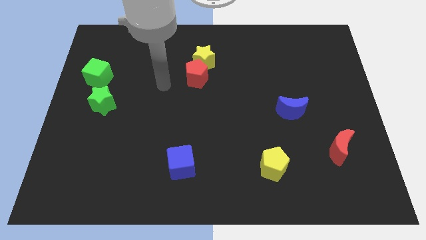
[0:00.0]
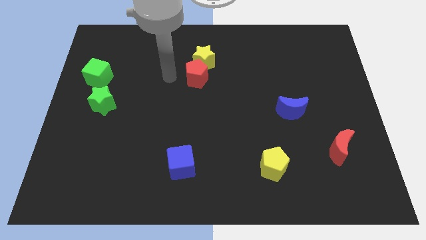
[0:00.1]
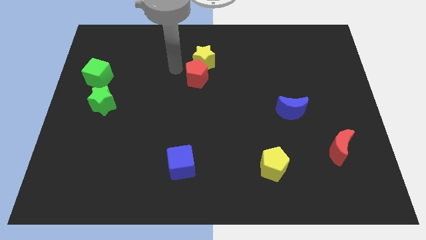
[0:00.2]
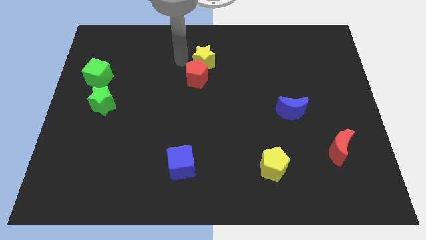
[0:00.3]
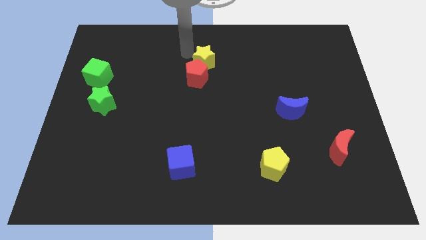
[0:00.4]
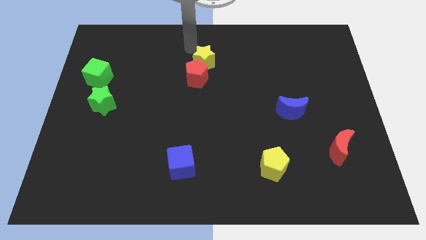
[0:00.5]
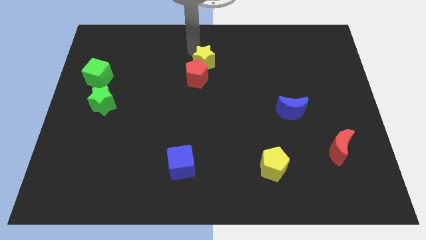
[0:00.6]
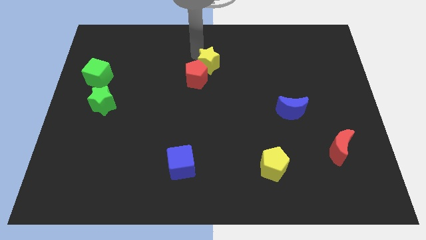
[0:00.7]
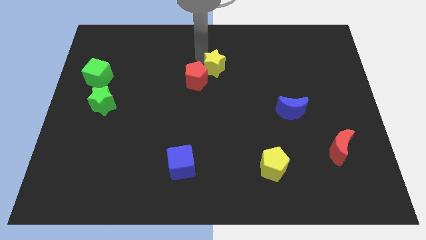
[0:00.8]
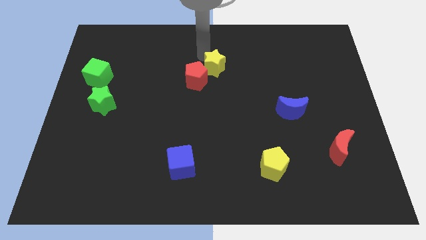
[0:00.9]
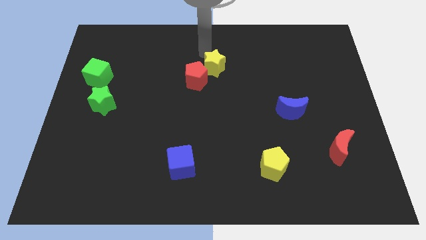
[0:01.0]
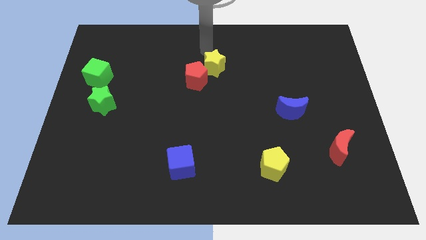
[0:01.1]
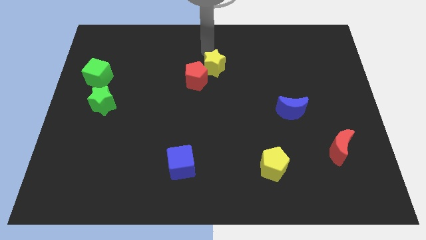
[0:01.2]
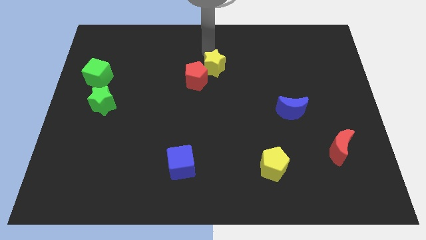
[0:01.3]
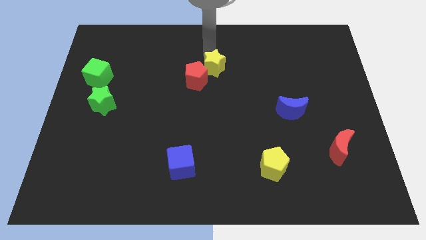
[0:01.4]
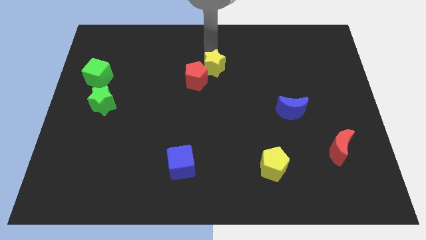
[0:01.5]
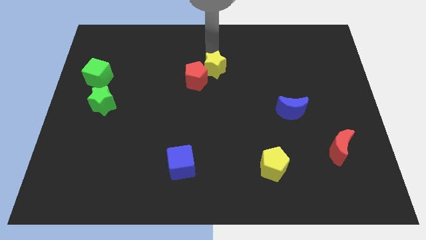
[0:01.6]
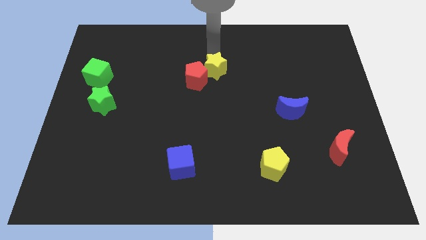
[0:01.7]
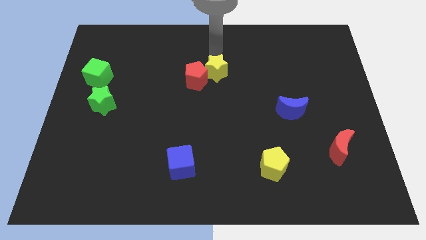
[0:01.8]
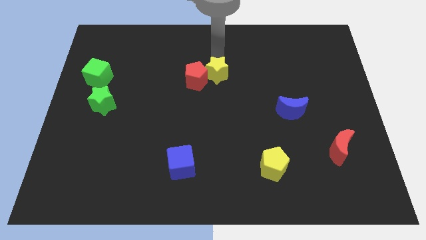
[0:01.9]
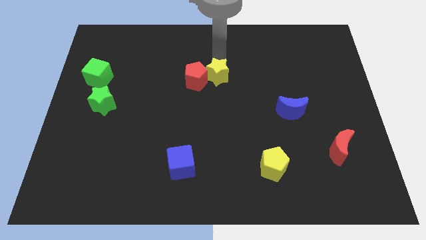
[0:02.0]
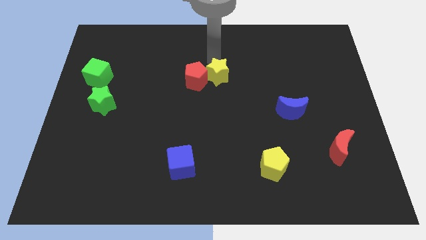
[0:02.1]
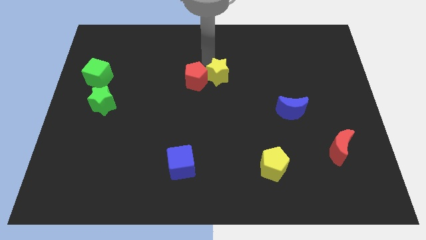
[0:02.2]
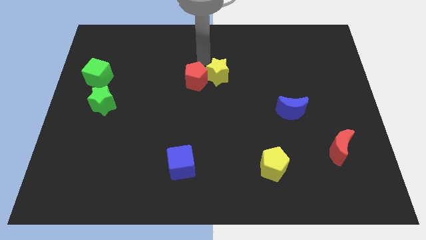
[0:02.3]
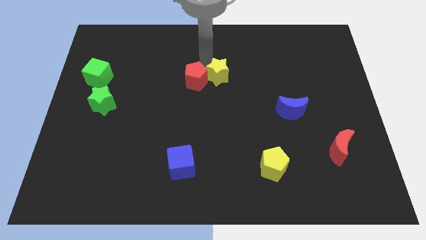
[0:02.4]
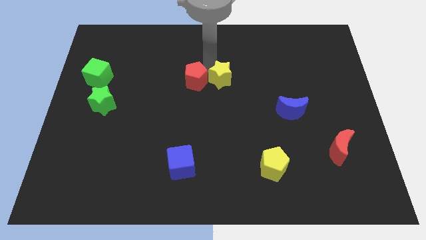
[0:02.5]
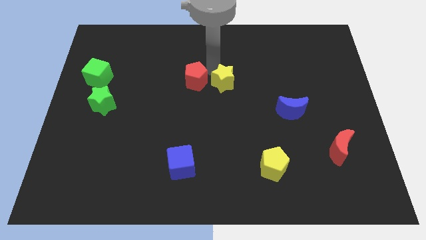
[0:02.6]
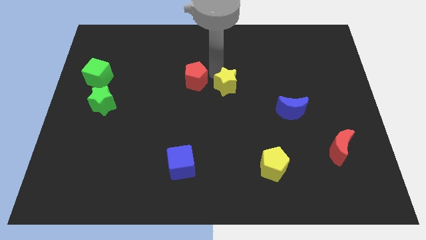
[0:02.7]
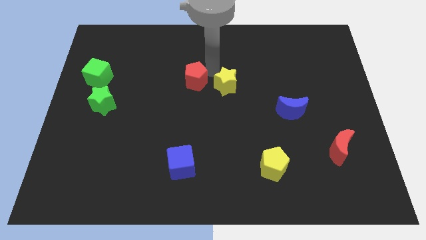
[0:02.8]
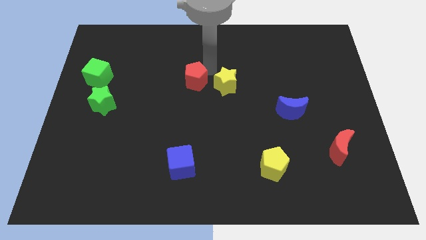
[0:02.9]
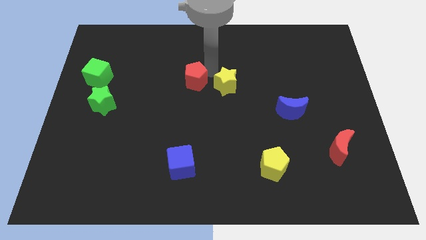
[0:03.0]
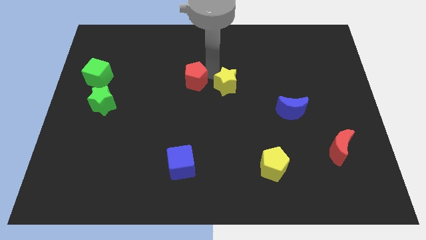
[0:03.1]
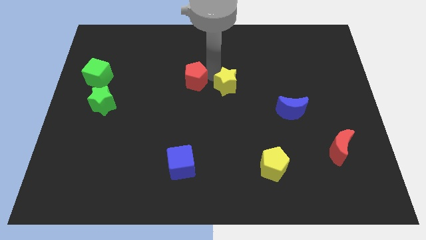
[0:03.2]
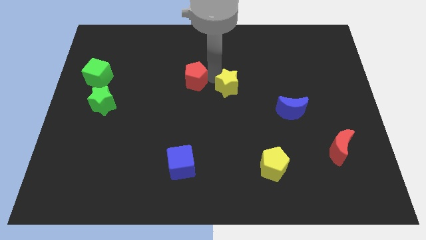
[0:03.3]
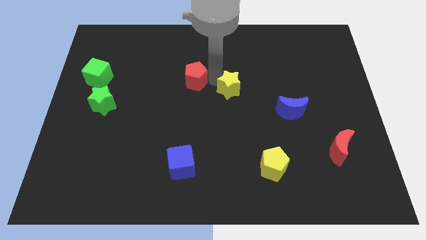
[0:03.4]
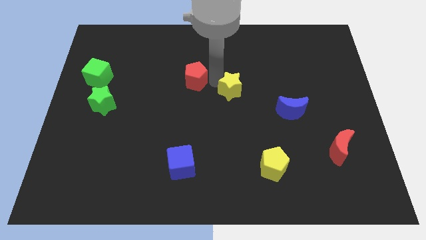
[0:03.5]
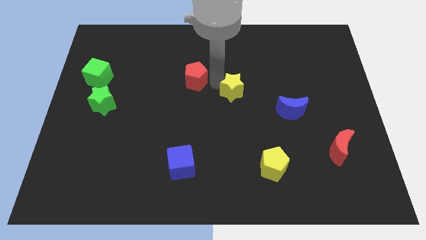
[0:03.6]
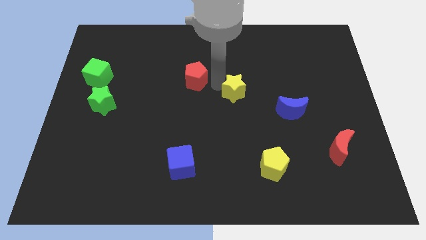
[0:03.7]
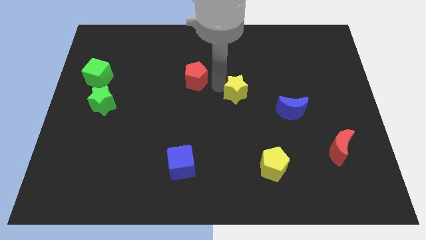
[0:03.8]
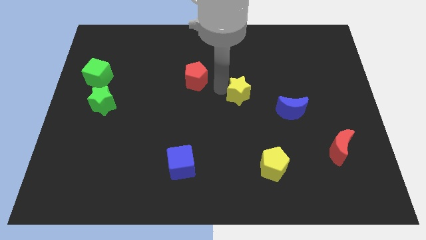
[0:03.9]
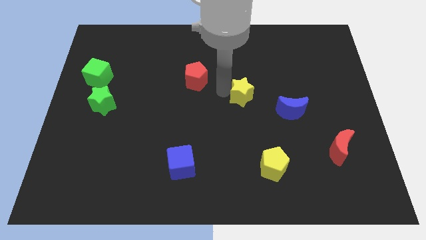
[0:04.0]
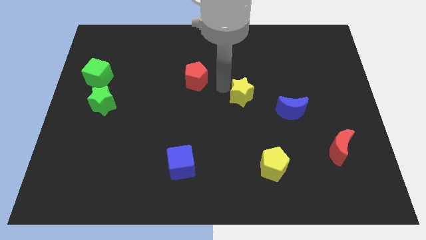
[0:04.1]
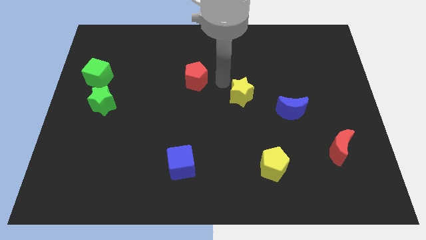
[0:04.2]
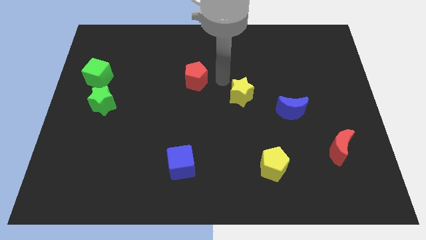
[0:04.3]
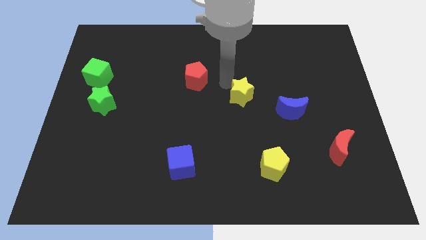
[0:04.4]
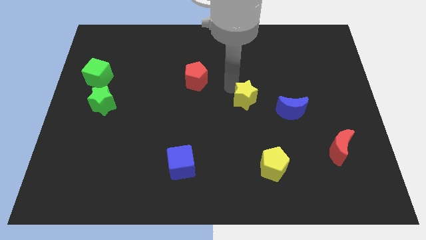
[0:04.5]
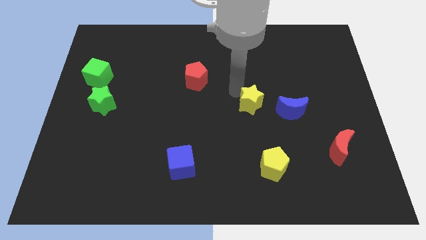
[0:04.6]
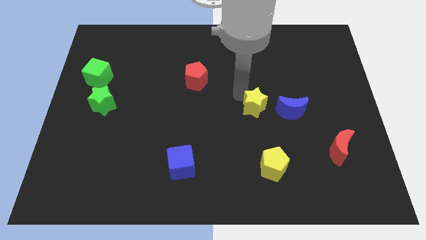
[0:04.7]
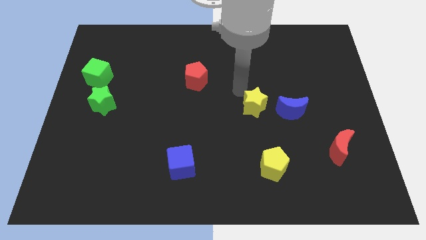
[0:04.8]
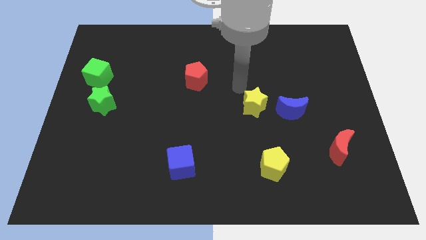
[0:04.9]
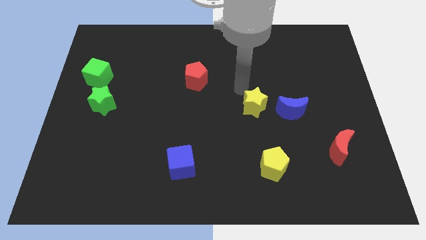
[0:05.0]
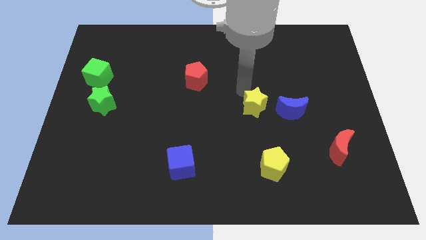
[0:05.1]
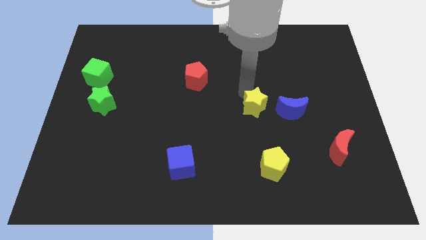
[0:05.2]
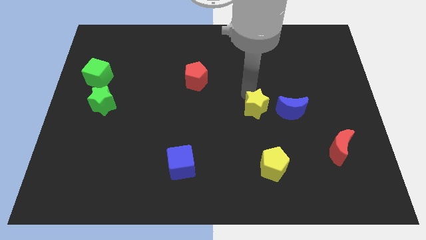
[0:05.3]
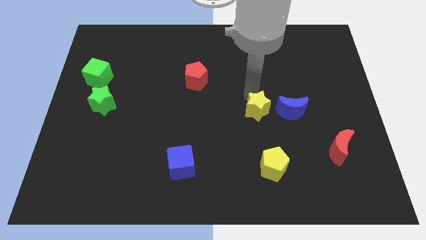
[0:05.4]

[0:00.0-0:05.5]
move the yellow star downwards and to the right

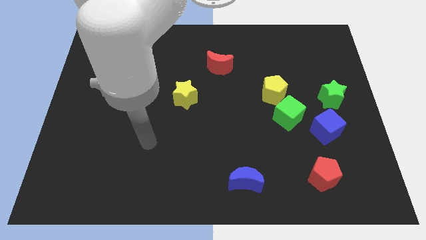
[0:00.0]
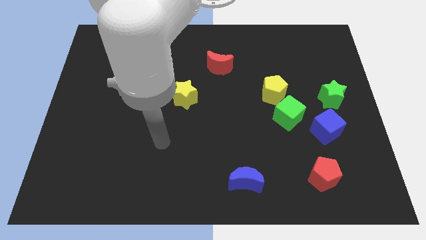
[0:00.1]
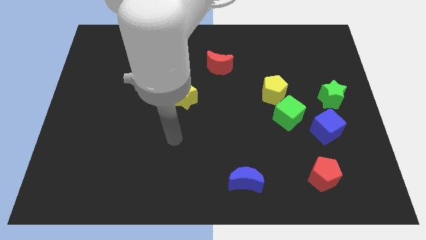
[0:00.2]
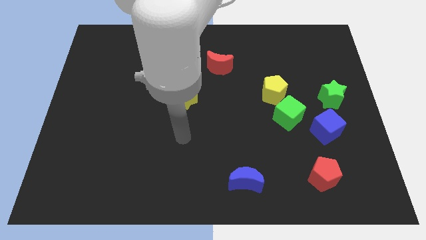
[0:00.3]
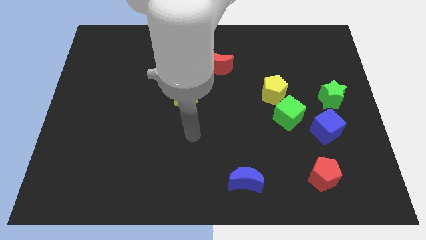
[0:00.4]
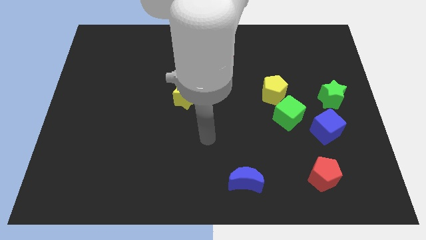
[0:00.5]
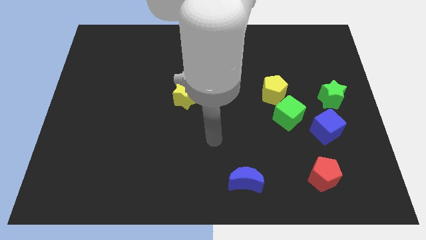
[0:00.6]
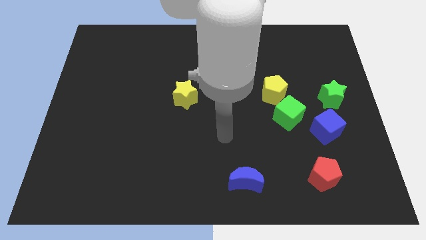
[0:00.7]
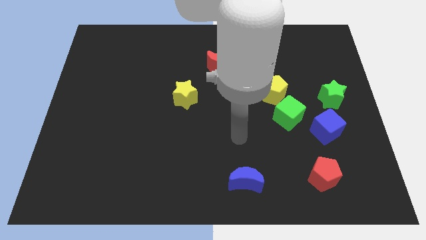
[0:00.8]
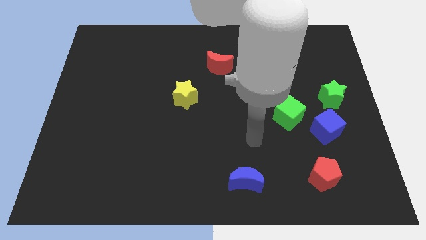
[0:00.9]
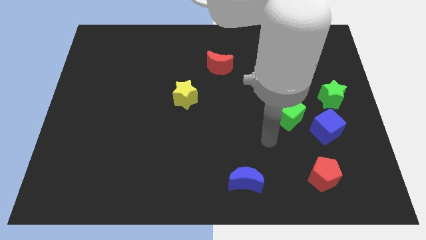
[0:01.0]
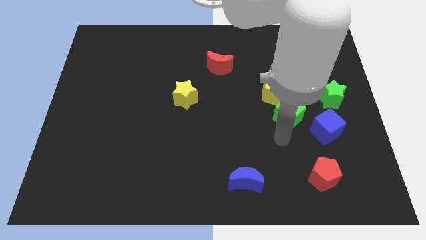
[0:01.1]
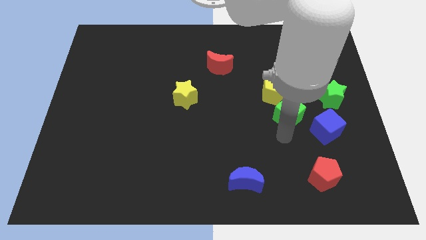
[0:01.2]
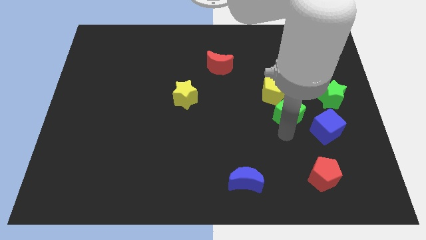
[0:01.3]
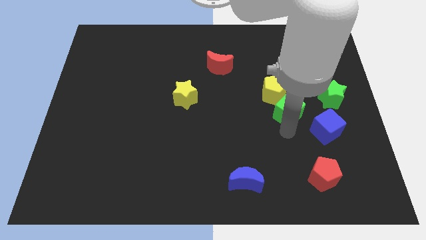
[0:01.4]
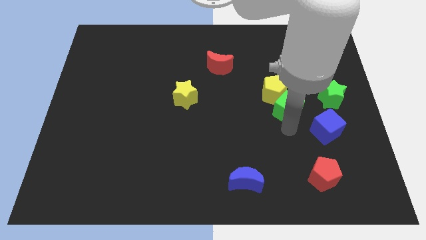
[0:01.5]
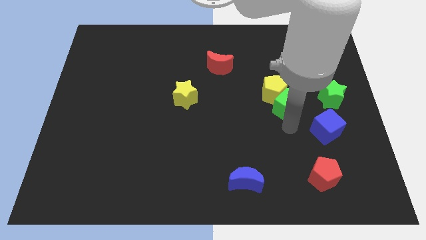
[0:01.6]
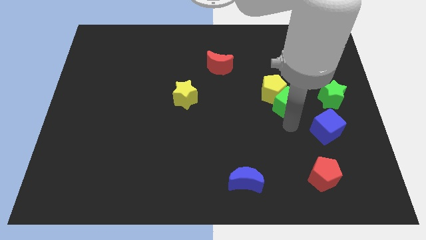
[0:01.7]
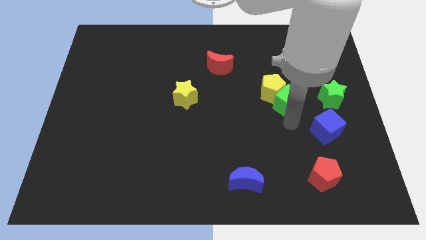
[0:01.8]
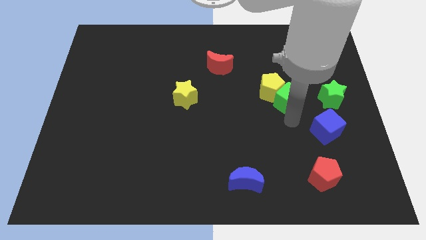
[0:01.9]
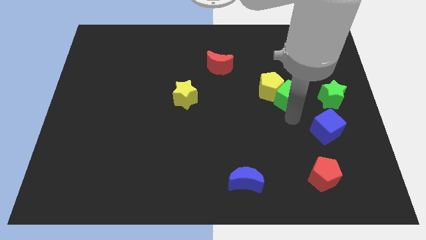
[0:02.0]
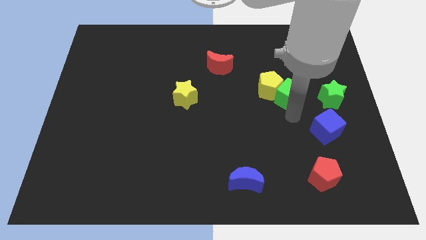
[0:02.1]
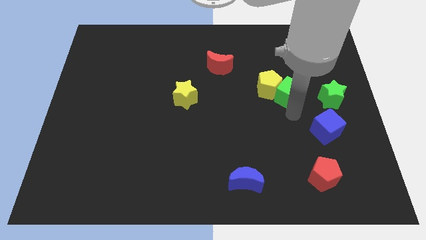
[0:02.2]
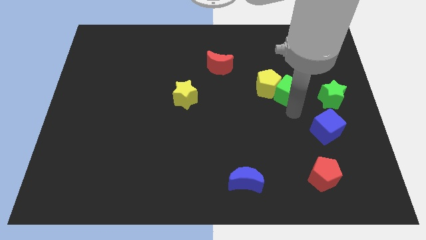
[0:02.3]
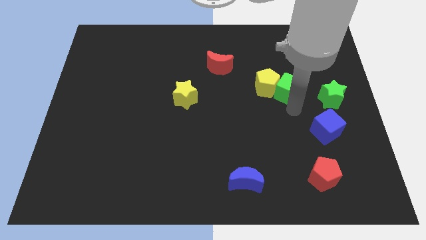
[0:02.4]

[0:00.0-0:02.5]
slide the green cube upwards slightly

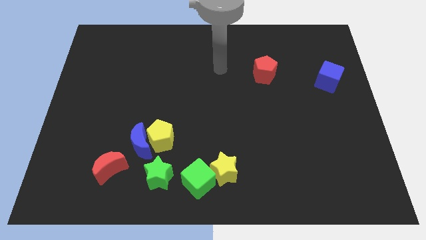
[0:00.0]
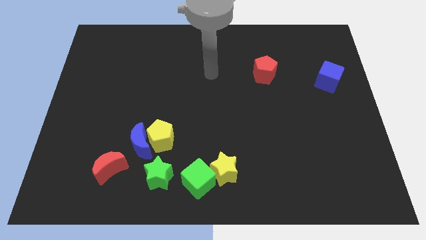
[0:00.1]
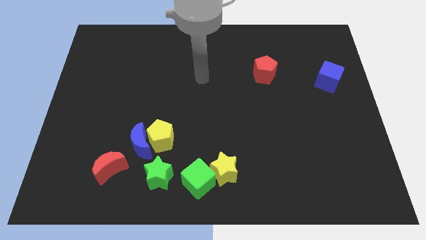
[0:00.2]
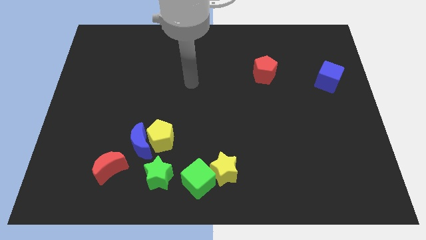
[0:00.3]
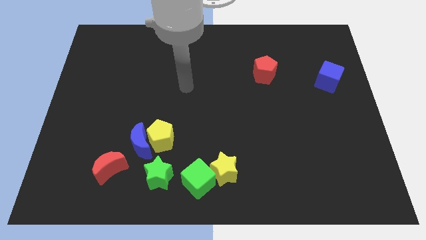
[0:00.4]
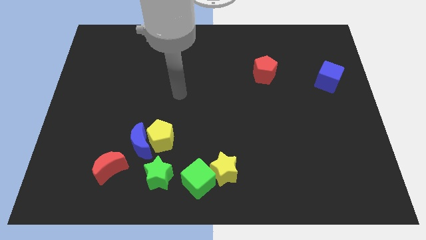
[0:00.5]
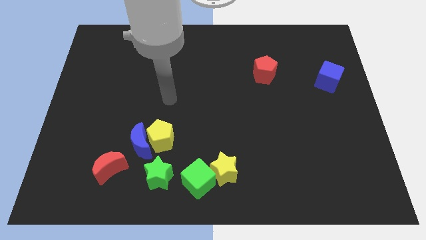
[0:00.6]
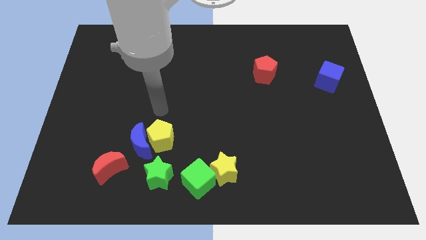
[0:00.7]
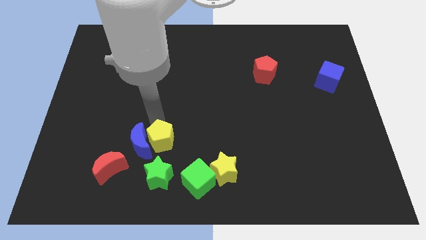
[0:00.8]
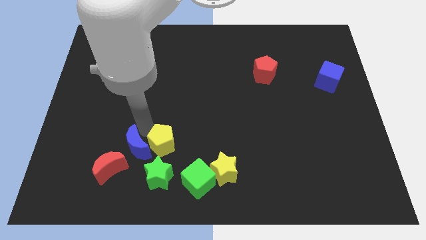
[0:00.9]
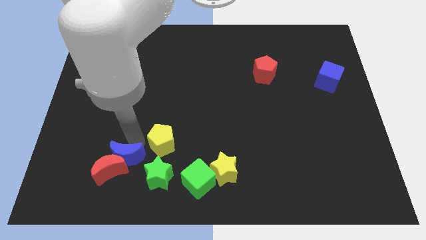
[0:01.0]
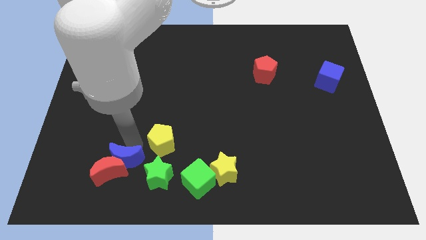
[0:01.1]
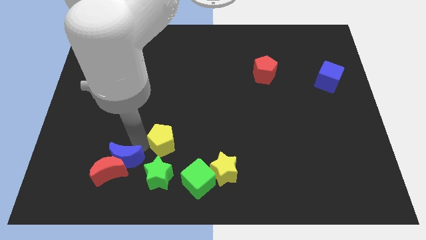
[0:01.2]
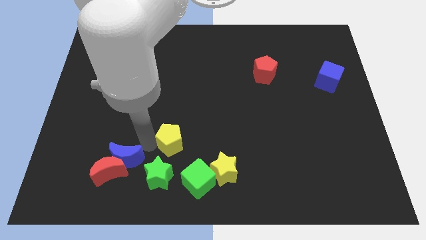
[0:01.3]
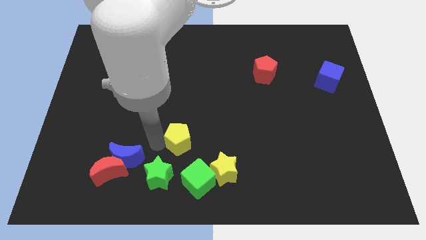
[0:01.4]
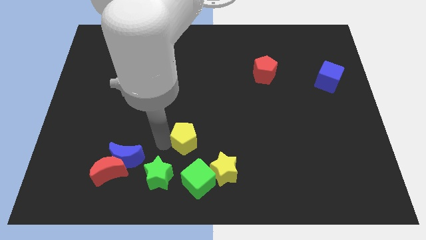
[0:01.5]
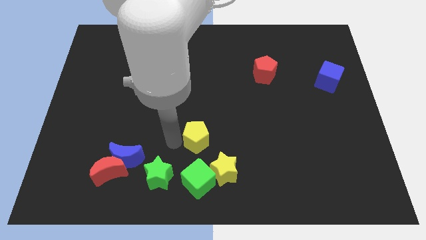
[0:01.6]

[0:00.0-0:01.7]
push the yellow pentagon a little to the right
